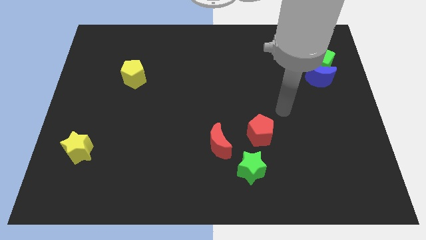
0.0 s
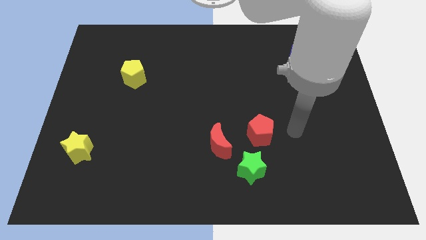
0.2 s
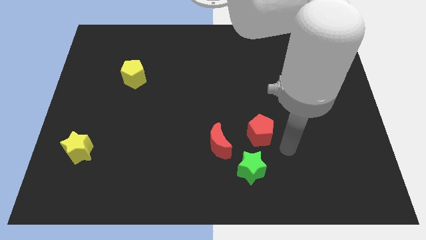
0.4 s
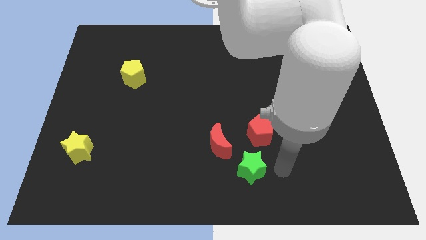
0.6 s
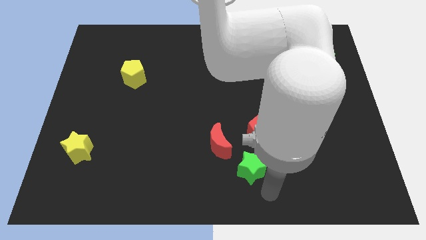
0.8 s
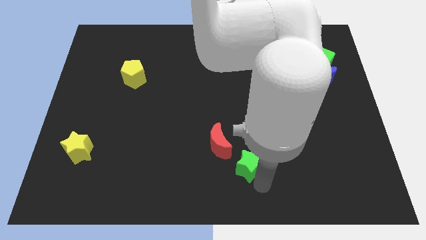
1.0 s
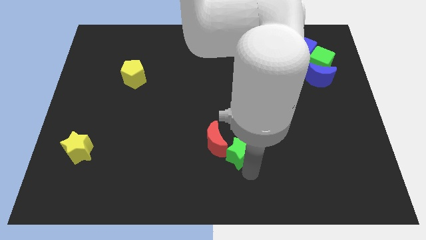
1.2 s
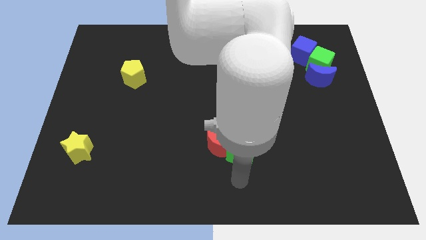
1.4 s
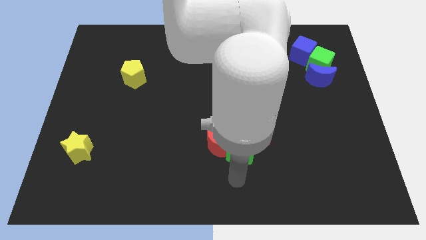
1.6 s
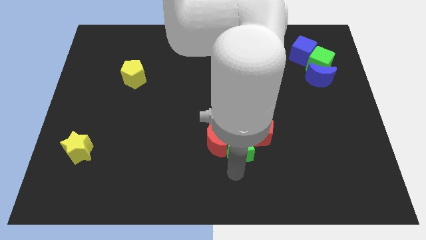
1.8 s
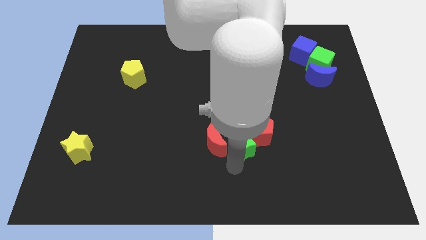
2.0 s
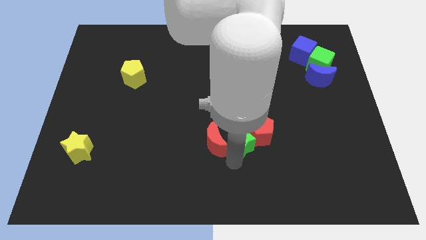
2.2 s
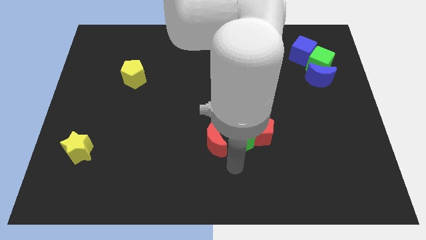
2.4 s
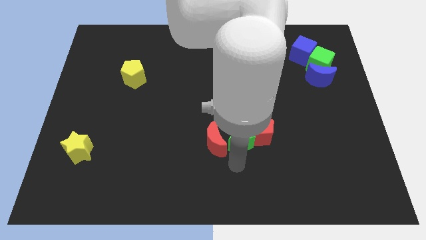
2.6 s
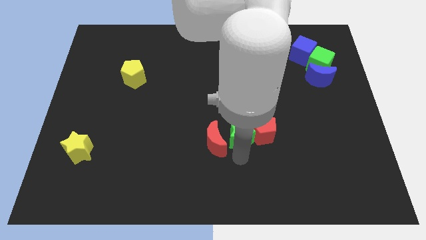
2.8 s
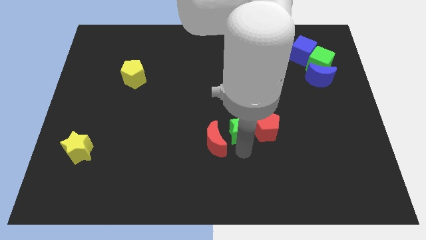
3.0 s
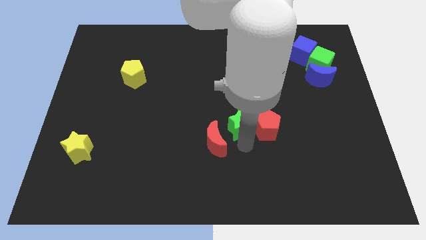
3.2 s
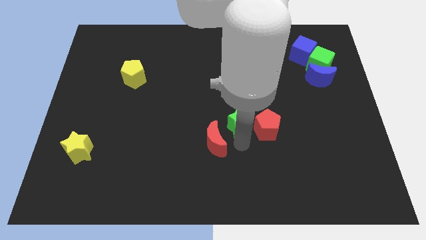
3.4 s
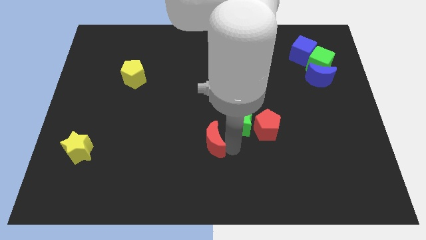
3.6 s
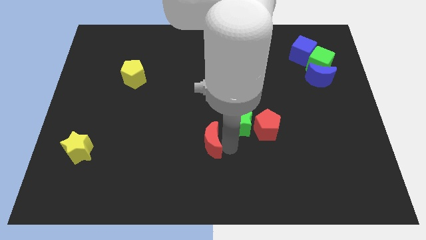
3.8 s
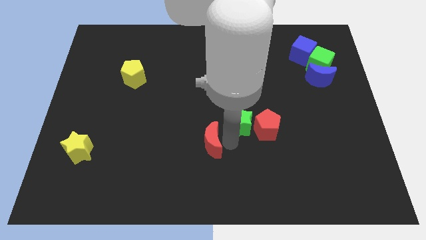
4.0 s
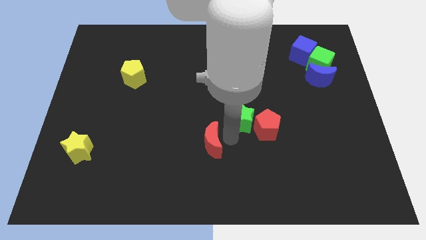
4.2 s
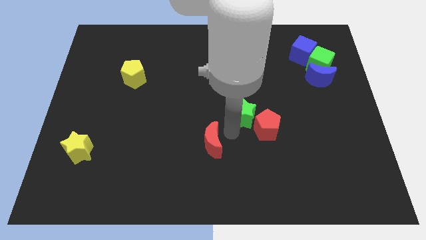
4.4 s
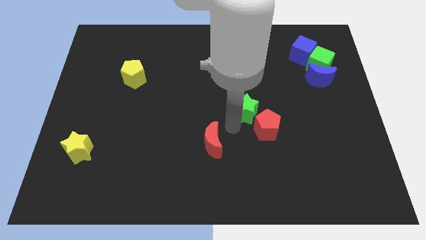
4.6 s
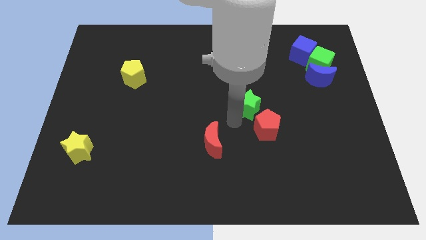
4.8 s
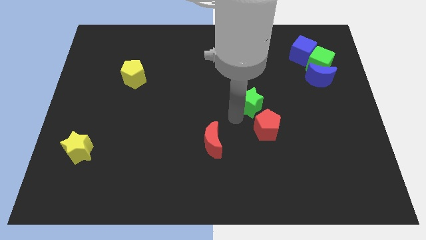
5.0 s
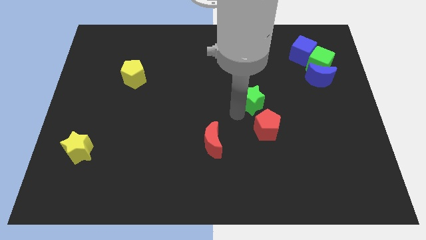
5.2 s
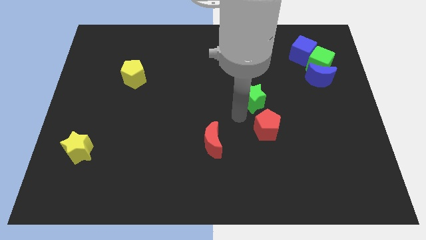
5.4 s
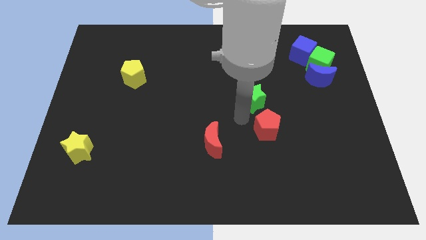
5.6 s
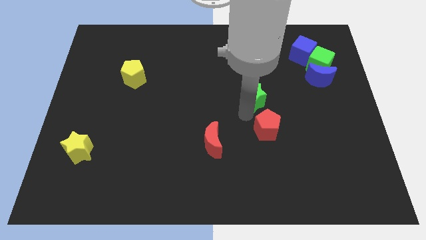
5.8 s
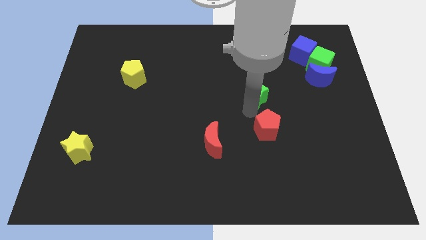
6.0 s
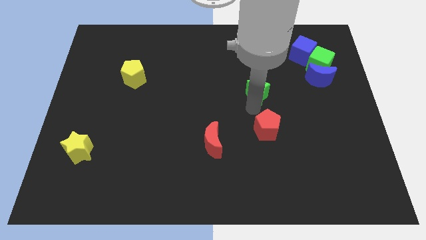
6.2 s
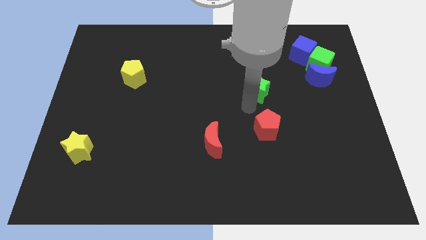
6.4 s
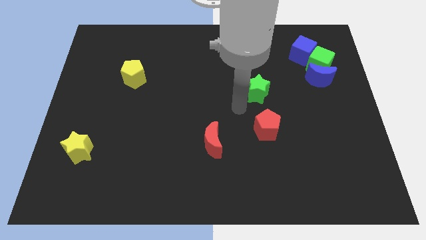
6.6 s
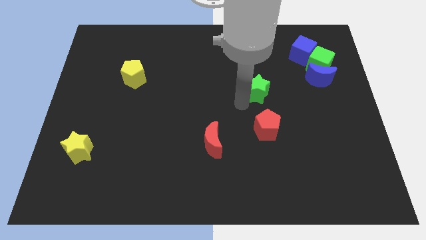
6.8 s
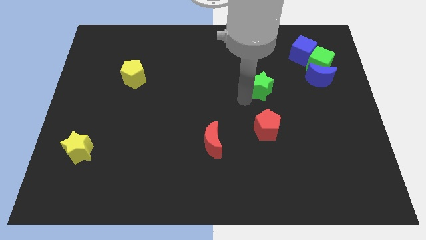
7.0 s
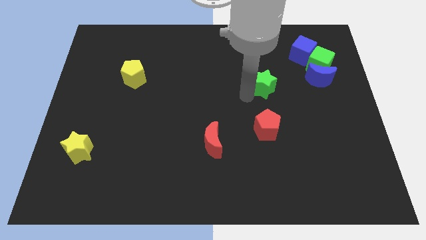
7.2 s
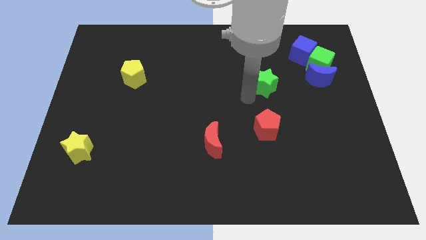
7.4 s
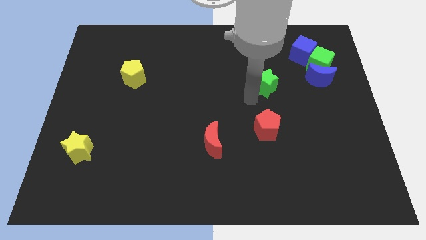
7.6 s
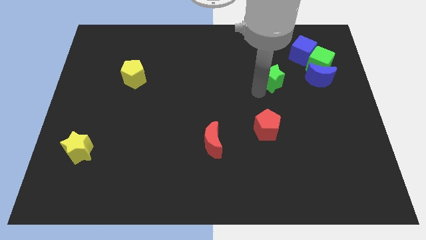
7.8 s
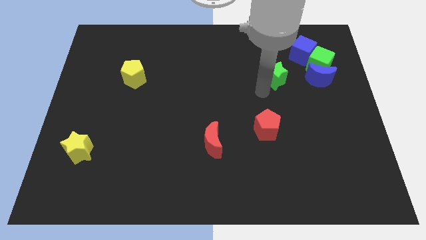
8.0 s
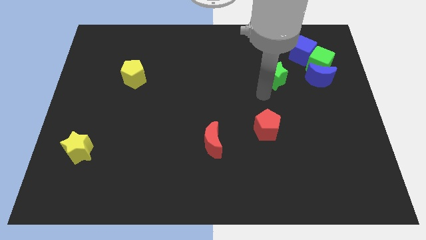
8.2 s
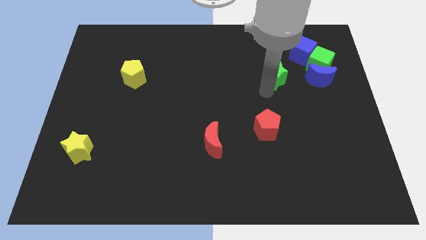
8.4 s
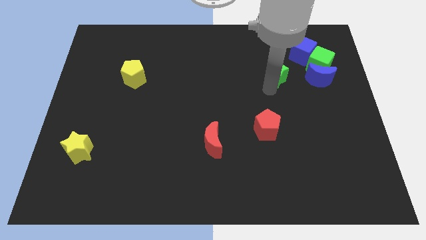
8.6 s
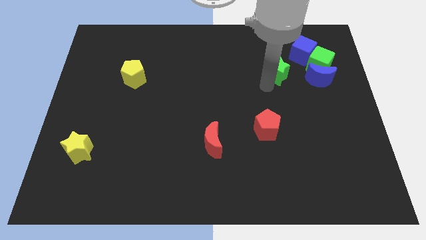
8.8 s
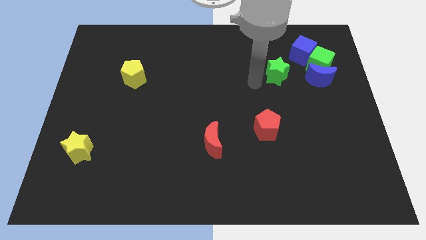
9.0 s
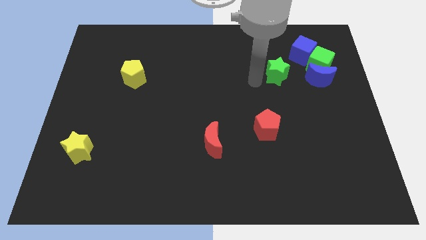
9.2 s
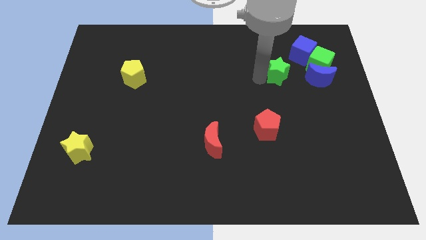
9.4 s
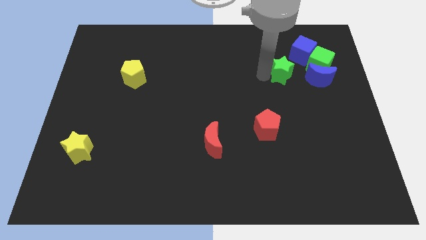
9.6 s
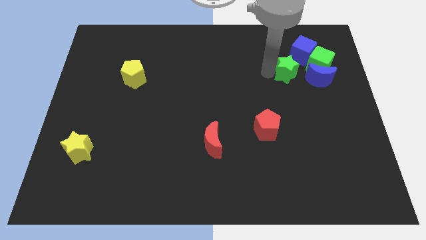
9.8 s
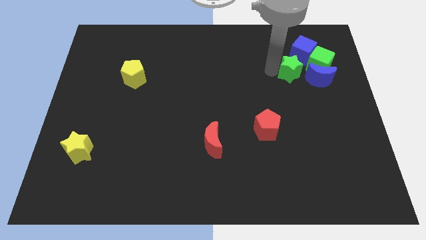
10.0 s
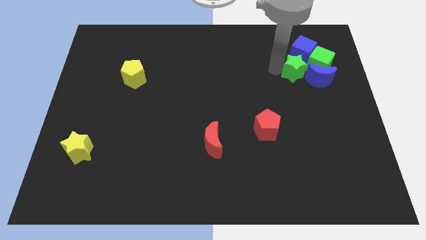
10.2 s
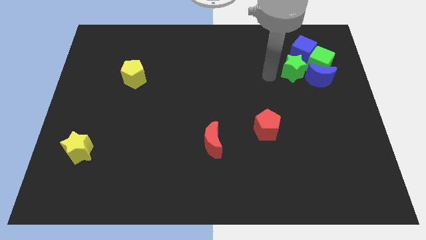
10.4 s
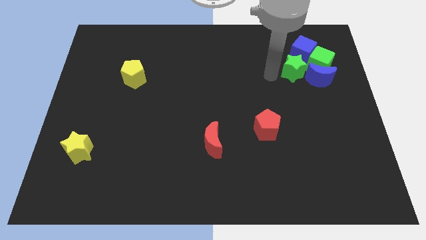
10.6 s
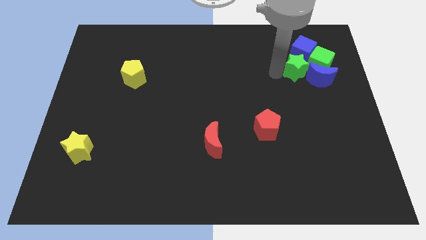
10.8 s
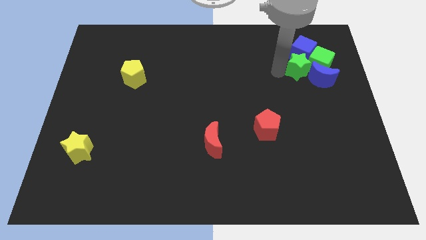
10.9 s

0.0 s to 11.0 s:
put the green star to the green cube

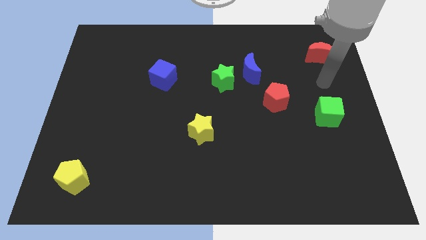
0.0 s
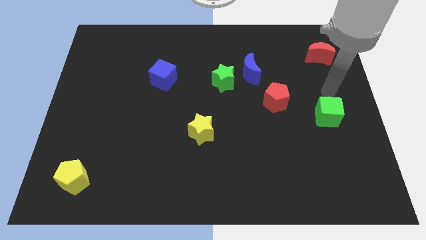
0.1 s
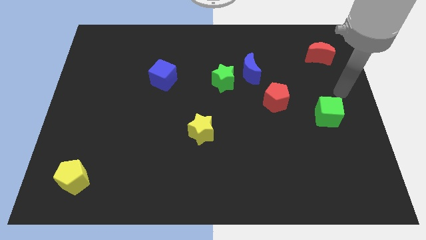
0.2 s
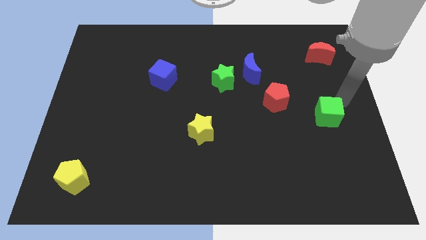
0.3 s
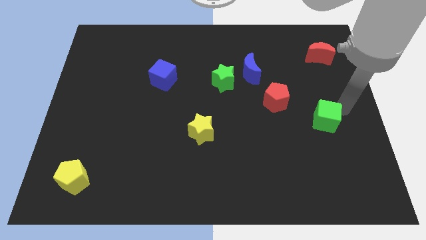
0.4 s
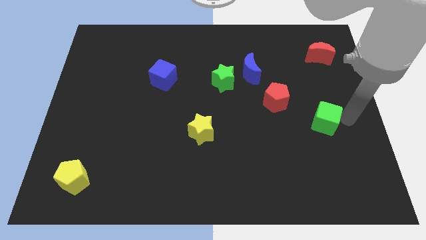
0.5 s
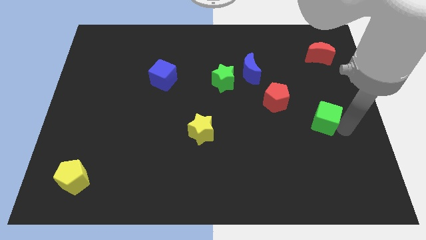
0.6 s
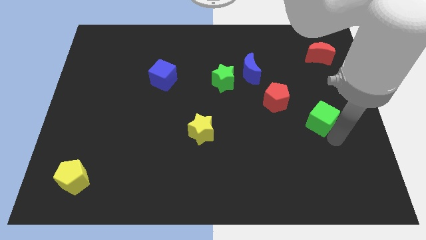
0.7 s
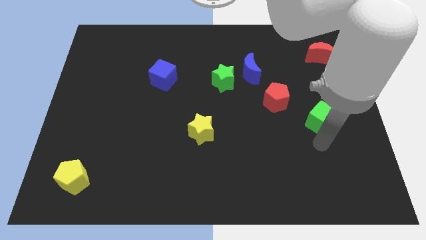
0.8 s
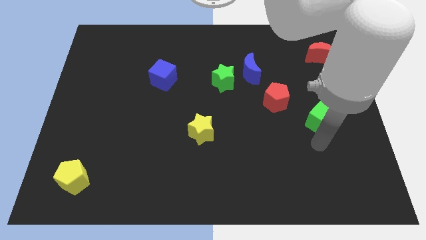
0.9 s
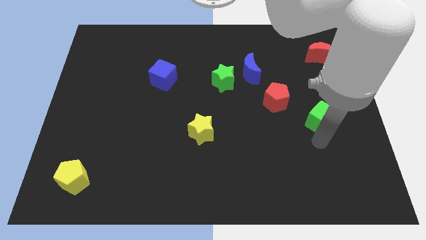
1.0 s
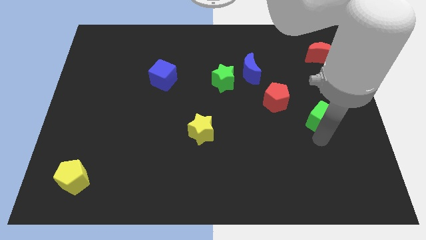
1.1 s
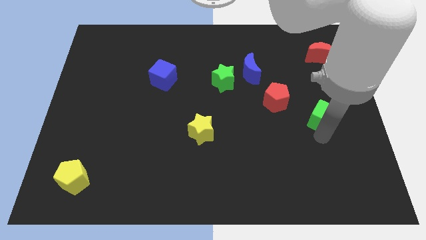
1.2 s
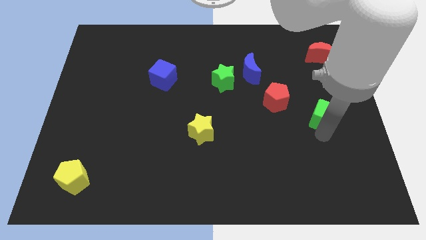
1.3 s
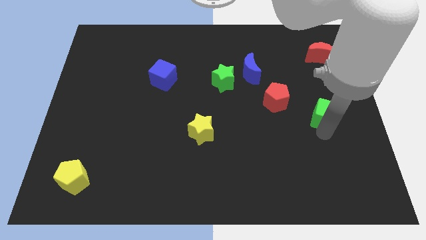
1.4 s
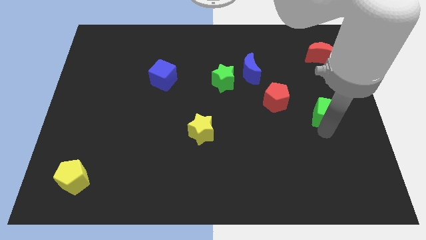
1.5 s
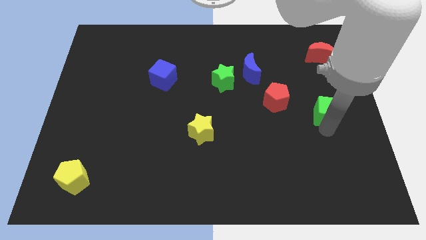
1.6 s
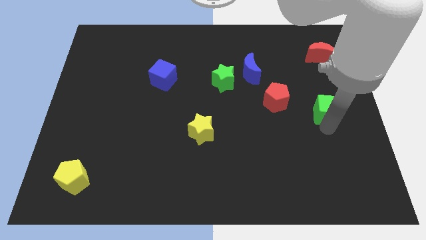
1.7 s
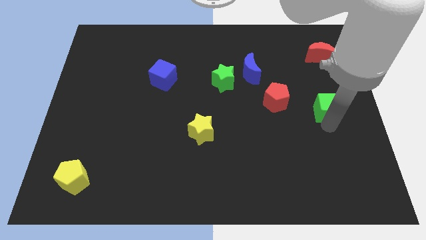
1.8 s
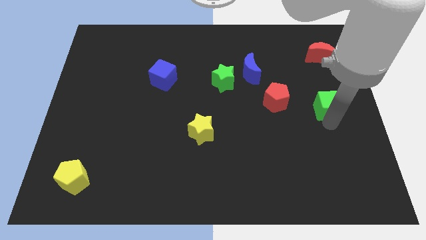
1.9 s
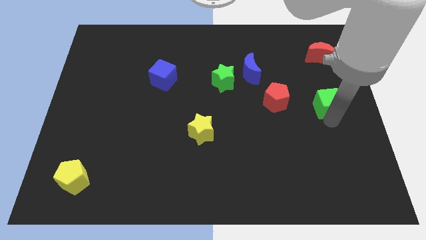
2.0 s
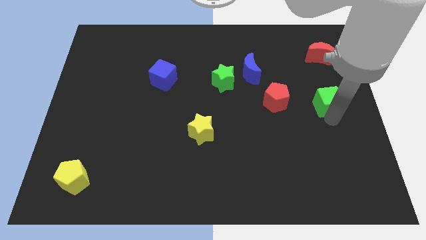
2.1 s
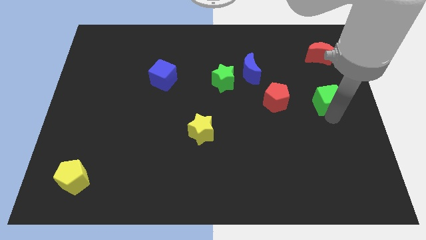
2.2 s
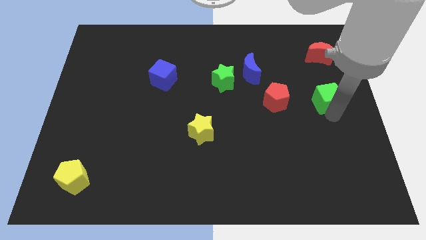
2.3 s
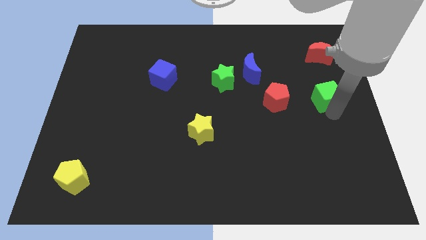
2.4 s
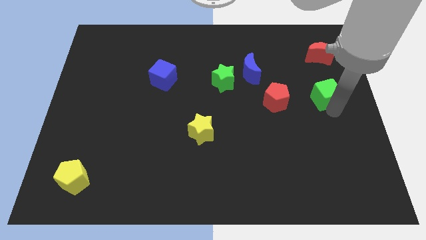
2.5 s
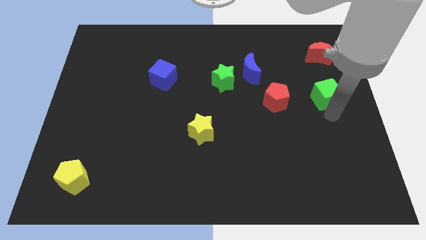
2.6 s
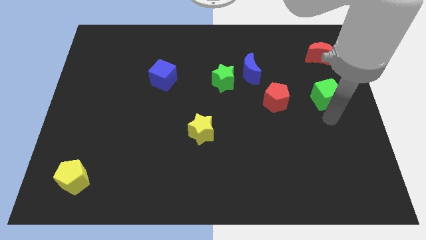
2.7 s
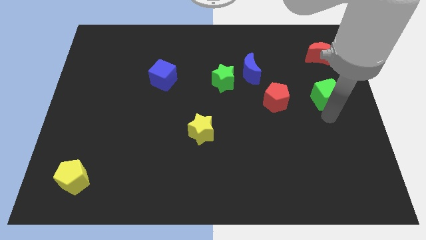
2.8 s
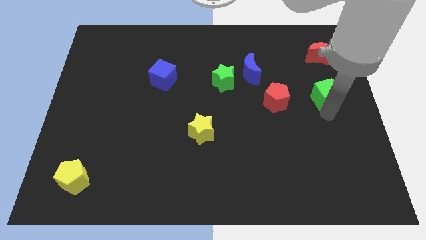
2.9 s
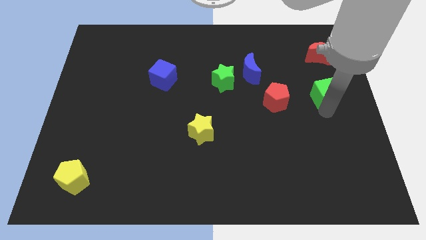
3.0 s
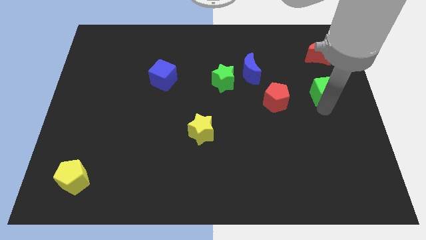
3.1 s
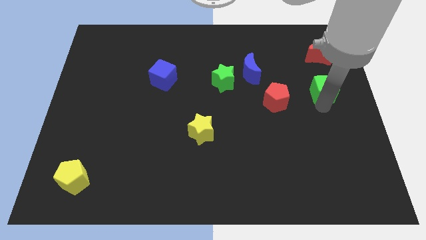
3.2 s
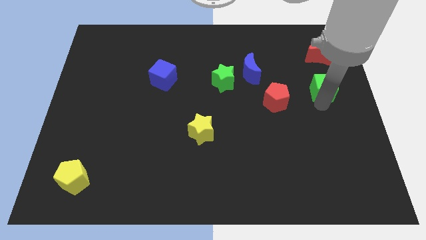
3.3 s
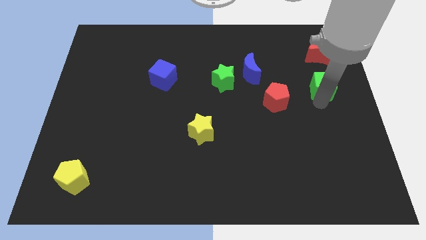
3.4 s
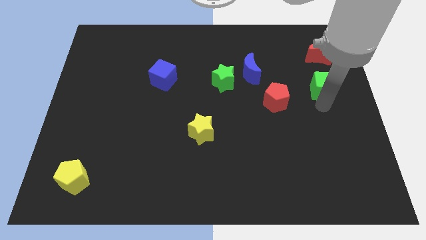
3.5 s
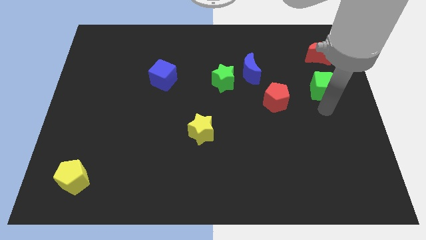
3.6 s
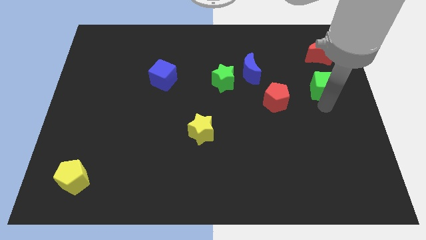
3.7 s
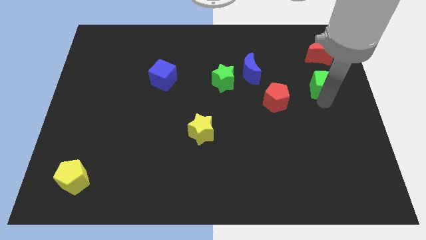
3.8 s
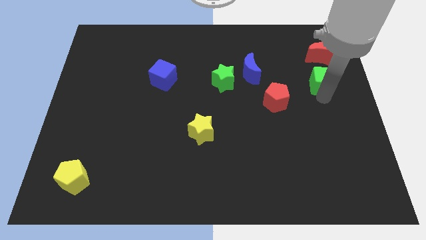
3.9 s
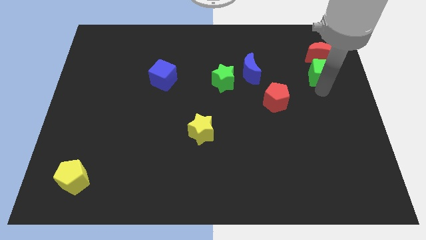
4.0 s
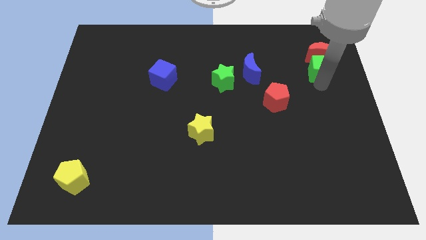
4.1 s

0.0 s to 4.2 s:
push the green cube towards the red moon
